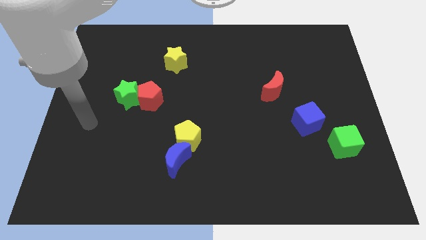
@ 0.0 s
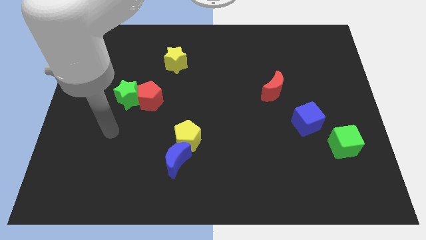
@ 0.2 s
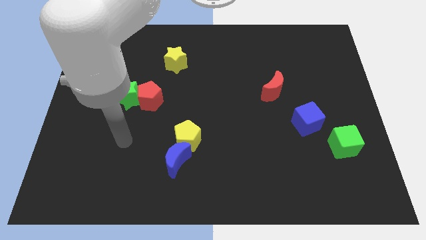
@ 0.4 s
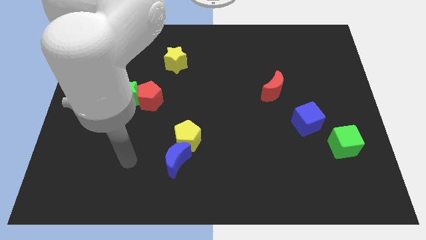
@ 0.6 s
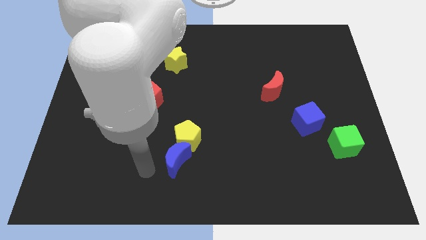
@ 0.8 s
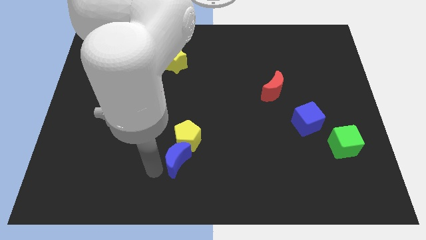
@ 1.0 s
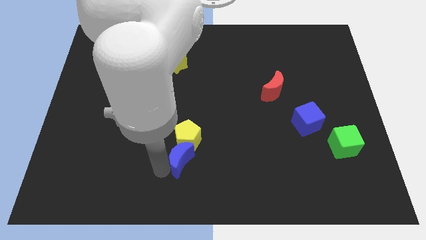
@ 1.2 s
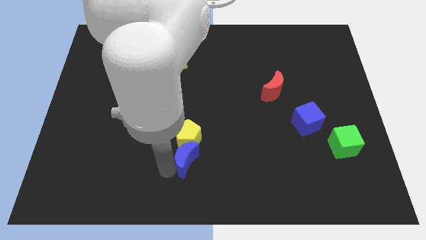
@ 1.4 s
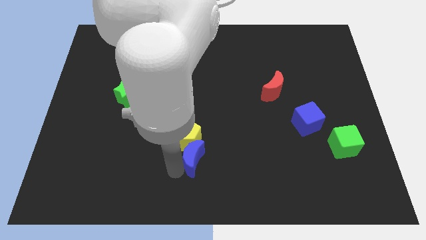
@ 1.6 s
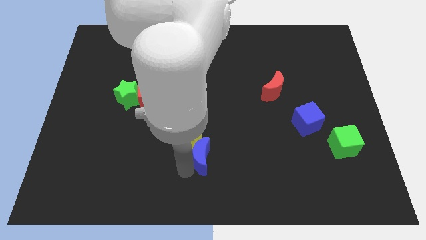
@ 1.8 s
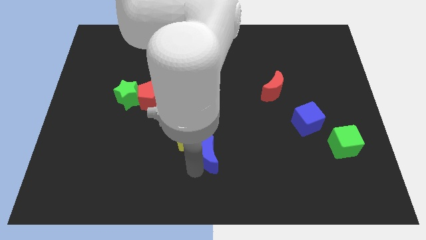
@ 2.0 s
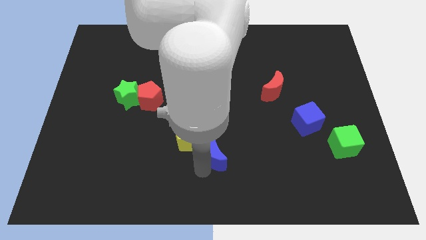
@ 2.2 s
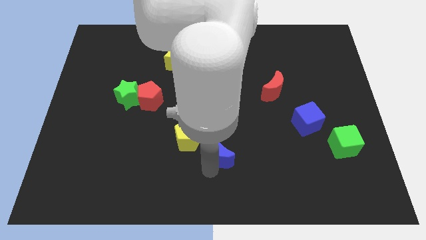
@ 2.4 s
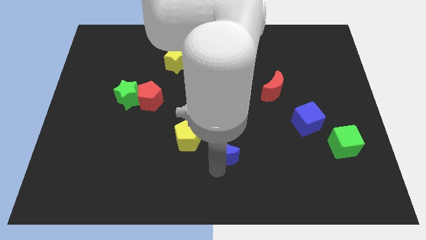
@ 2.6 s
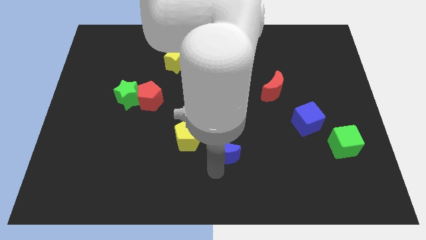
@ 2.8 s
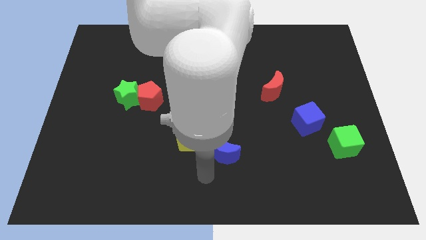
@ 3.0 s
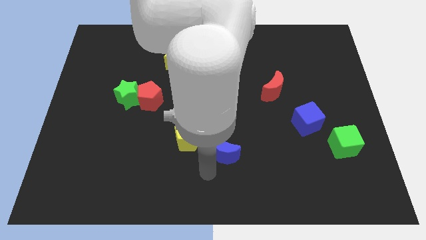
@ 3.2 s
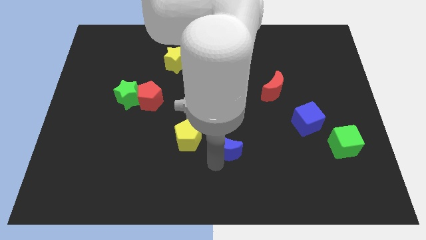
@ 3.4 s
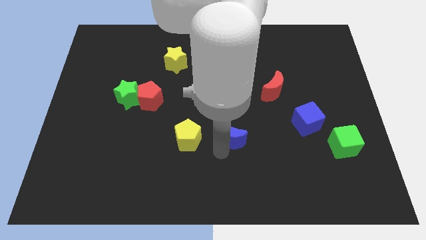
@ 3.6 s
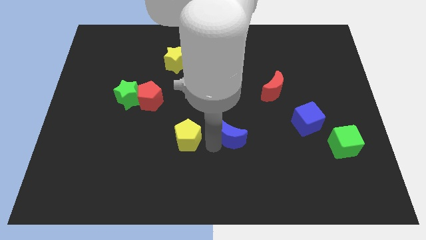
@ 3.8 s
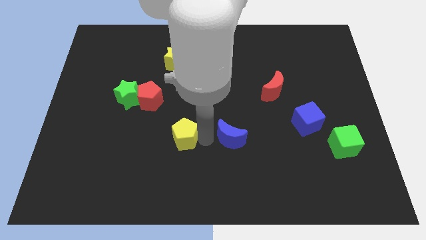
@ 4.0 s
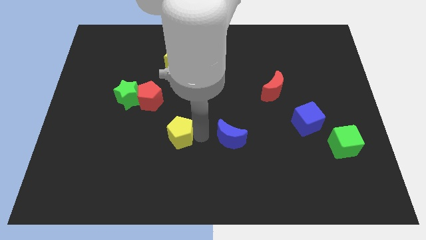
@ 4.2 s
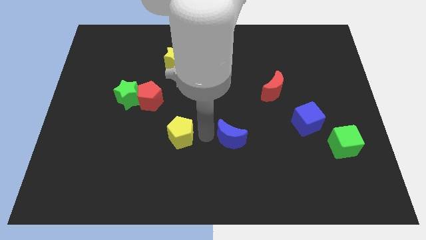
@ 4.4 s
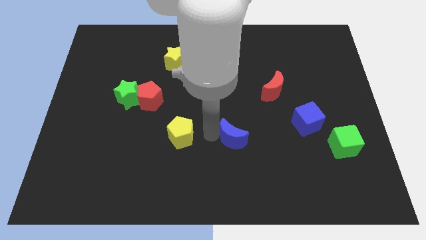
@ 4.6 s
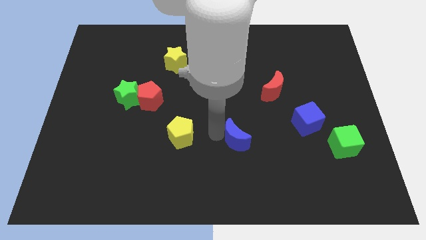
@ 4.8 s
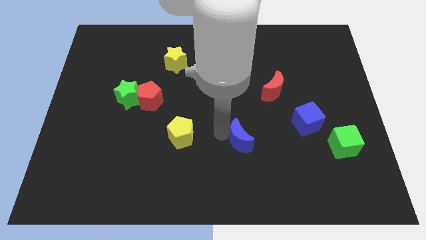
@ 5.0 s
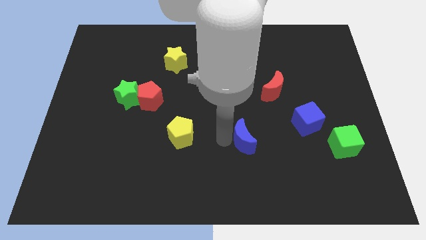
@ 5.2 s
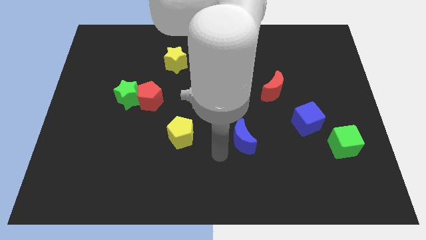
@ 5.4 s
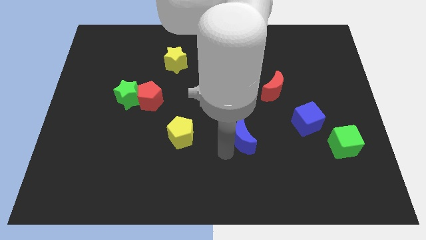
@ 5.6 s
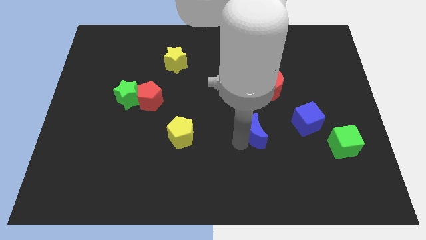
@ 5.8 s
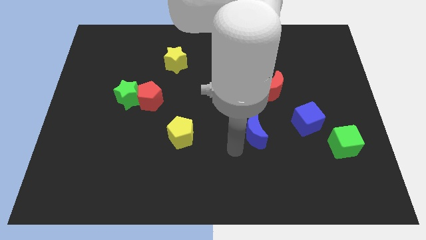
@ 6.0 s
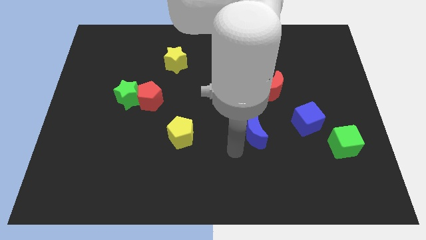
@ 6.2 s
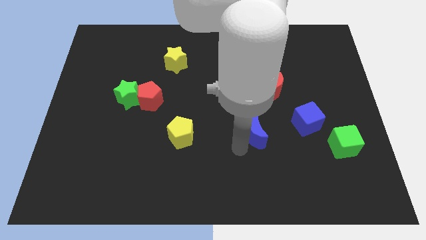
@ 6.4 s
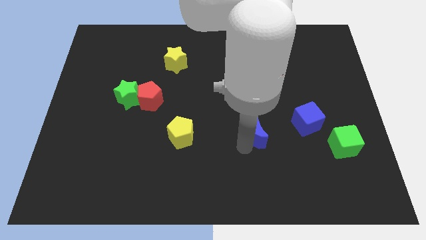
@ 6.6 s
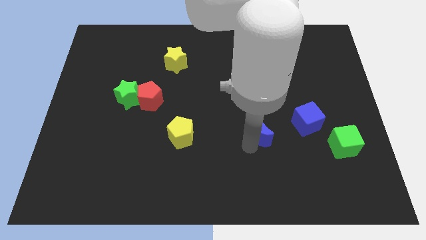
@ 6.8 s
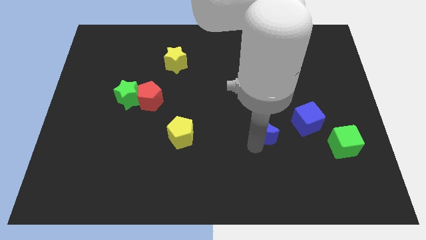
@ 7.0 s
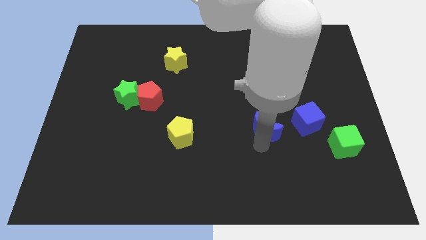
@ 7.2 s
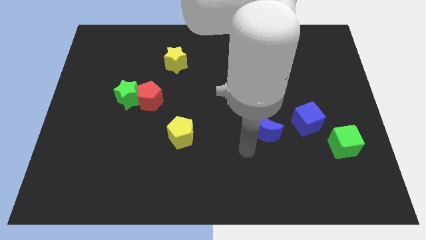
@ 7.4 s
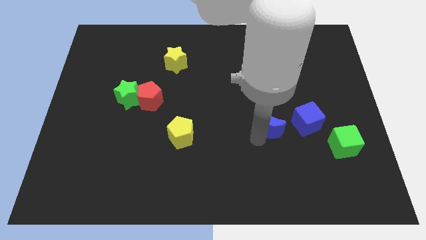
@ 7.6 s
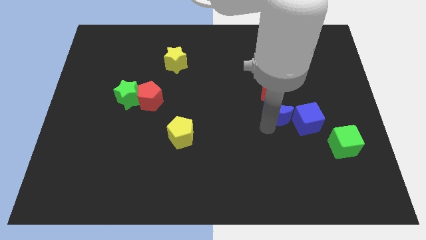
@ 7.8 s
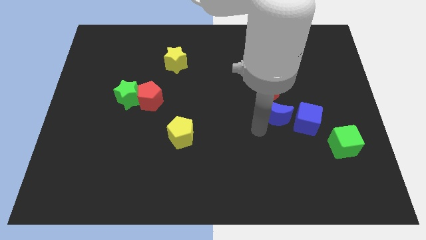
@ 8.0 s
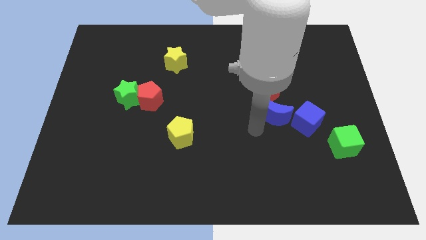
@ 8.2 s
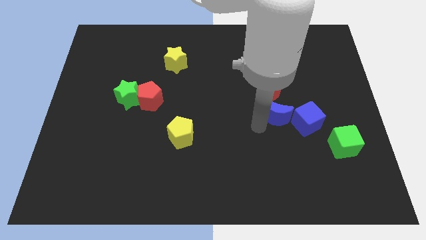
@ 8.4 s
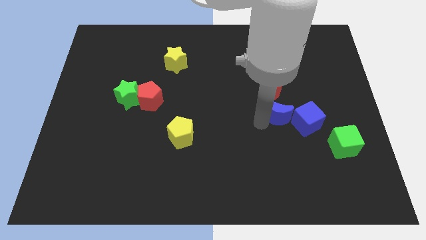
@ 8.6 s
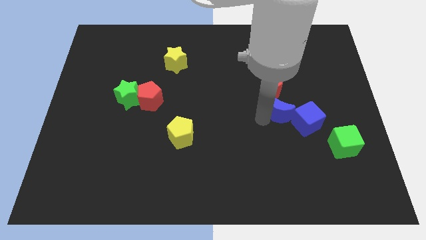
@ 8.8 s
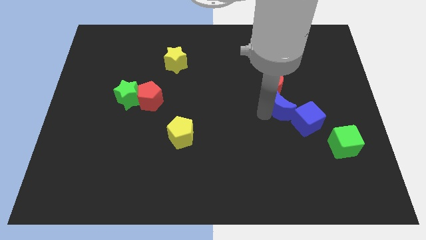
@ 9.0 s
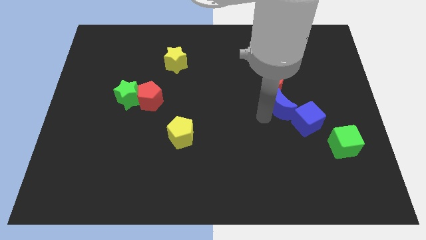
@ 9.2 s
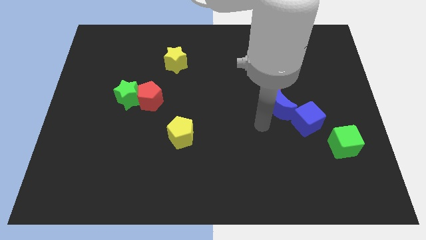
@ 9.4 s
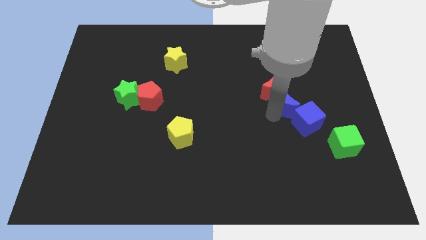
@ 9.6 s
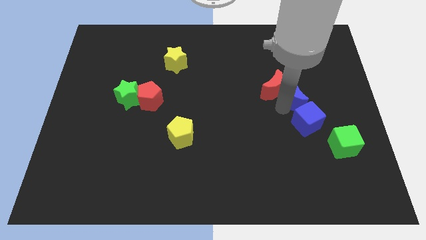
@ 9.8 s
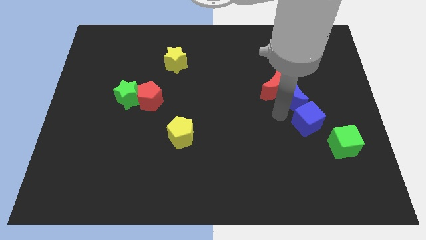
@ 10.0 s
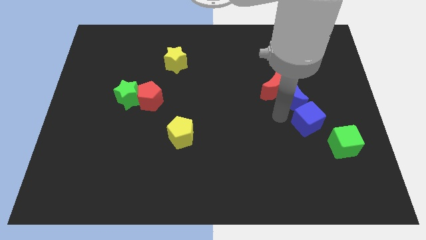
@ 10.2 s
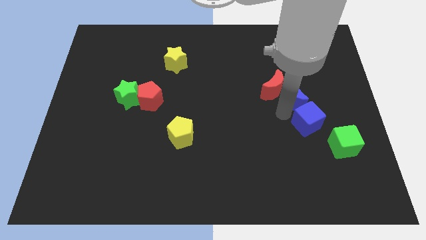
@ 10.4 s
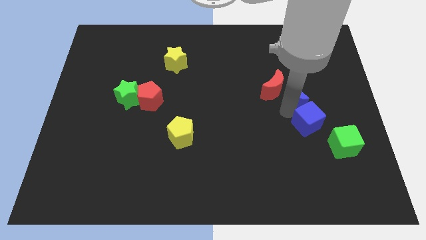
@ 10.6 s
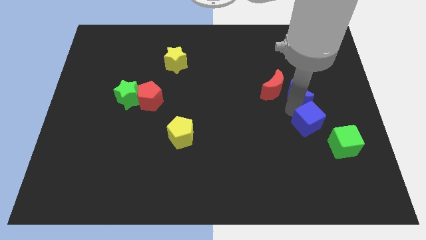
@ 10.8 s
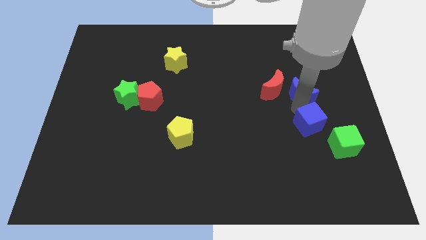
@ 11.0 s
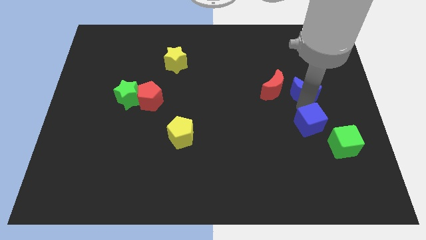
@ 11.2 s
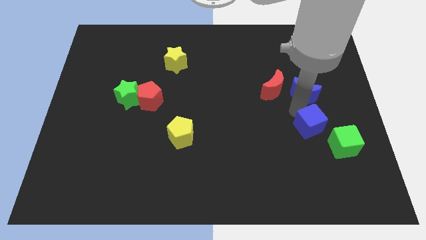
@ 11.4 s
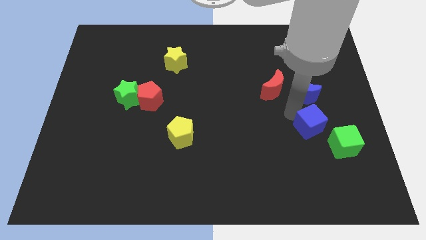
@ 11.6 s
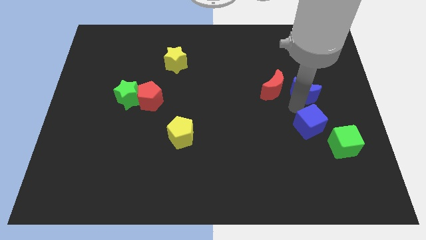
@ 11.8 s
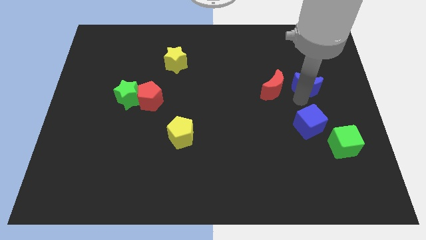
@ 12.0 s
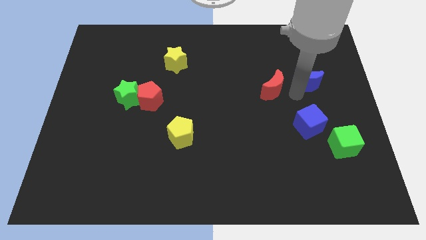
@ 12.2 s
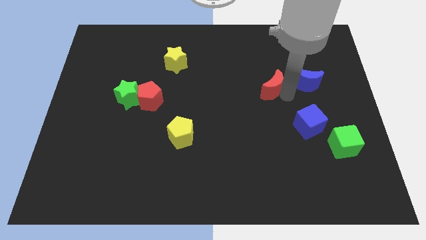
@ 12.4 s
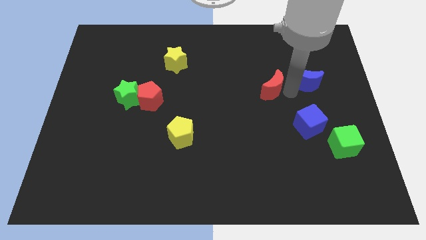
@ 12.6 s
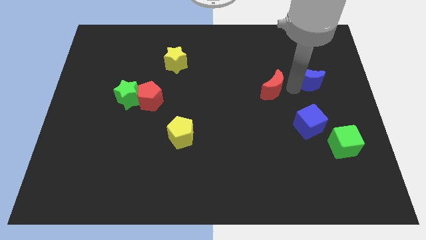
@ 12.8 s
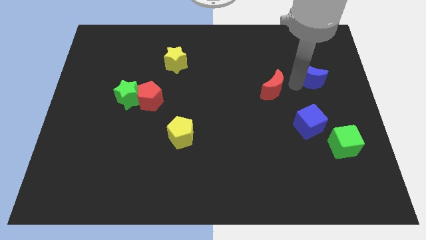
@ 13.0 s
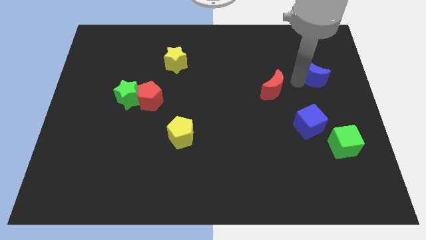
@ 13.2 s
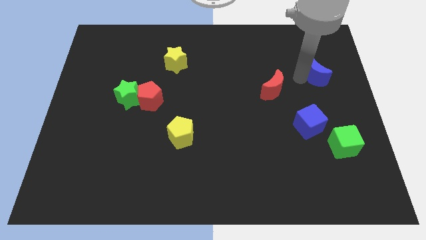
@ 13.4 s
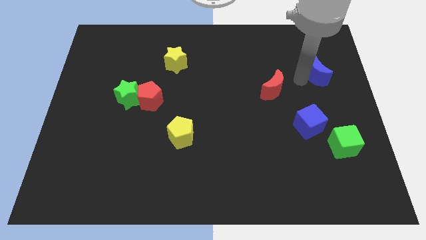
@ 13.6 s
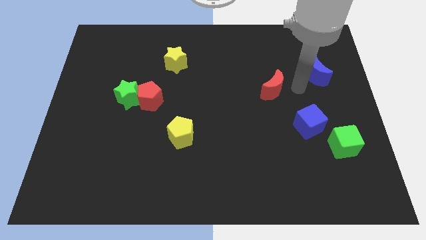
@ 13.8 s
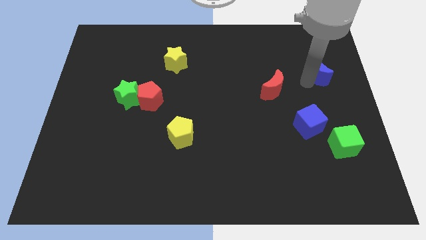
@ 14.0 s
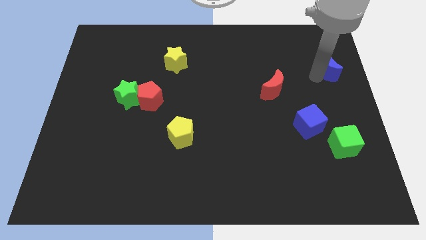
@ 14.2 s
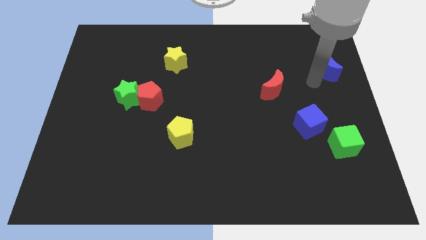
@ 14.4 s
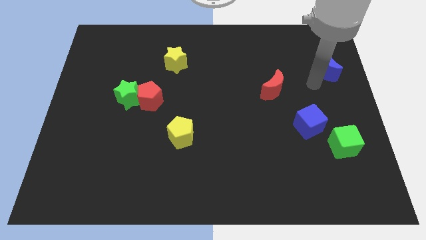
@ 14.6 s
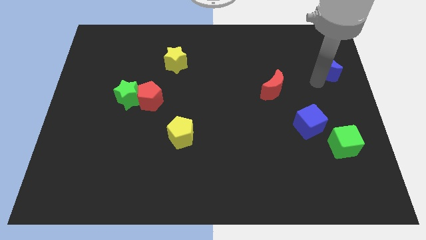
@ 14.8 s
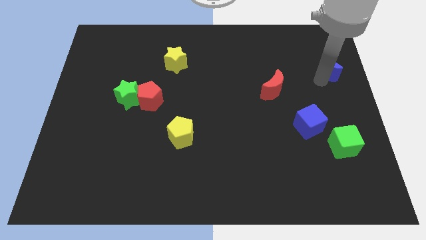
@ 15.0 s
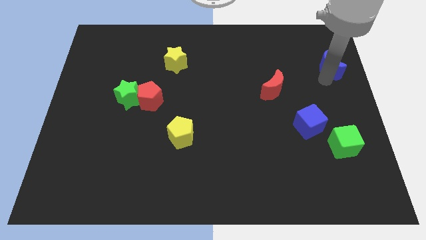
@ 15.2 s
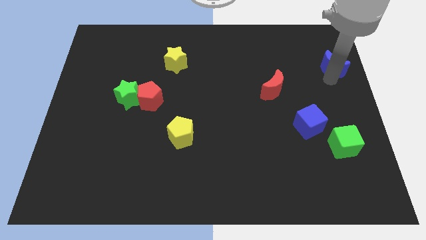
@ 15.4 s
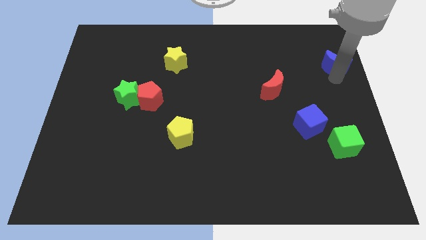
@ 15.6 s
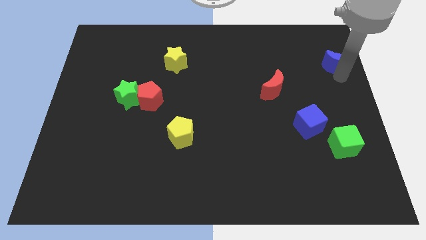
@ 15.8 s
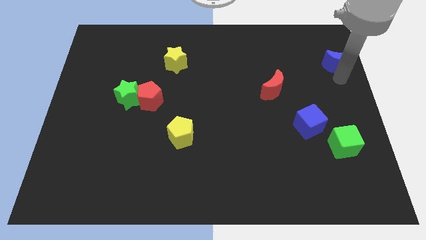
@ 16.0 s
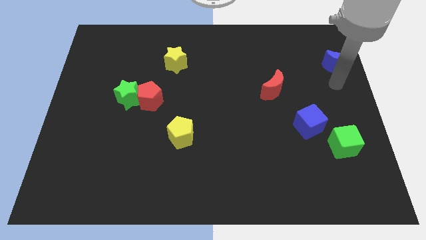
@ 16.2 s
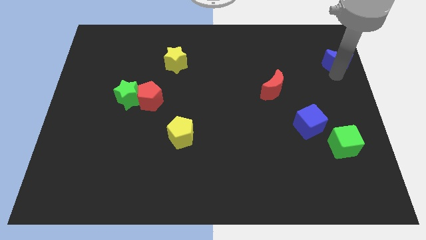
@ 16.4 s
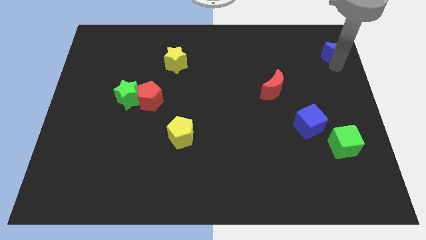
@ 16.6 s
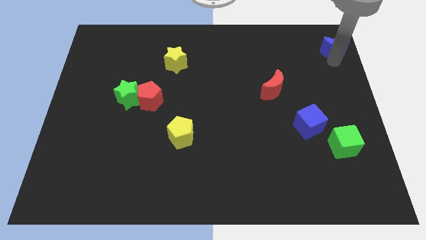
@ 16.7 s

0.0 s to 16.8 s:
push the blue moon to the top right of the board
